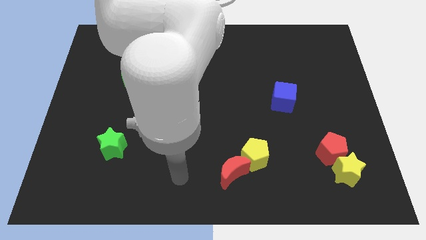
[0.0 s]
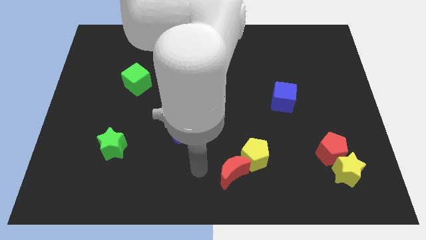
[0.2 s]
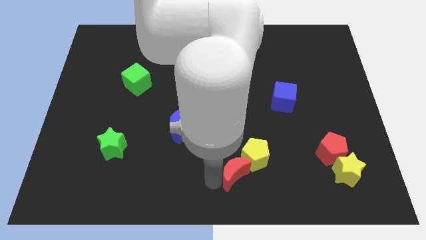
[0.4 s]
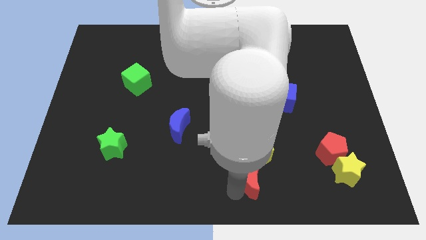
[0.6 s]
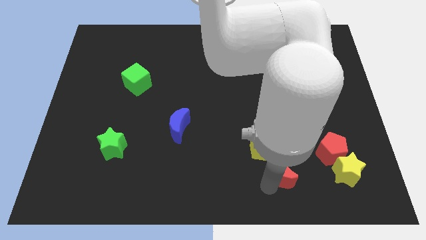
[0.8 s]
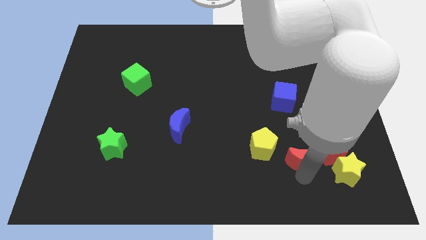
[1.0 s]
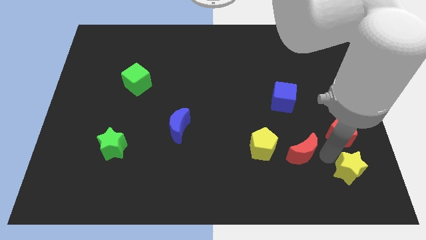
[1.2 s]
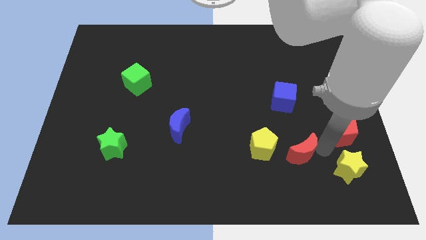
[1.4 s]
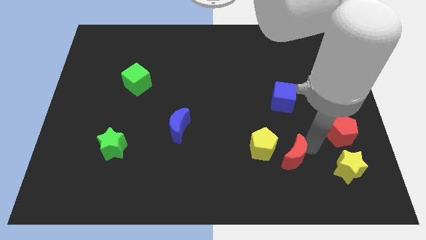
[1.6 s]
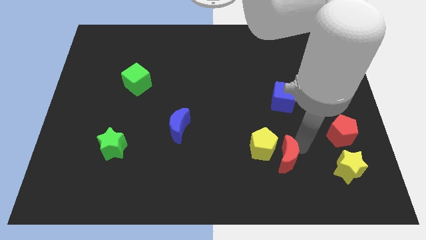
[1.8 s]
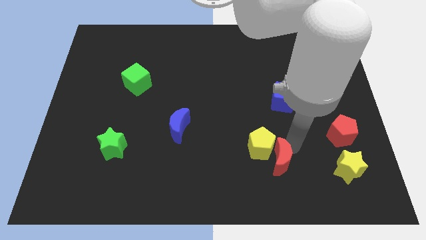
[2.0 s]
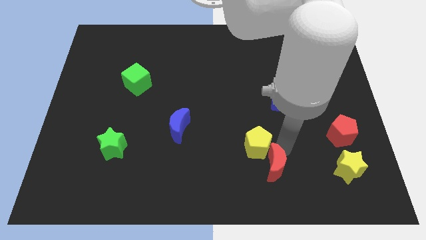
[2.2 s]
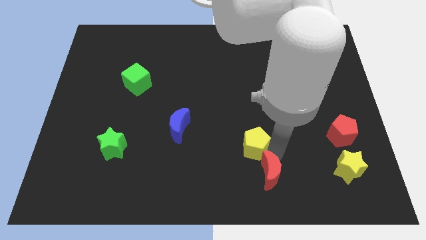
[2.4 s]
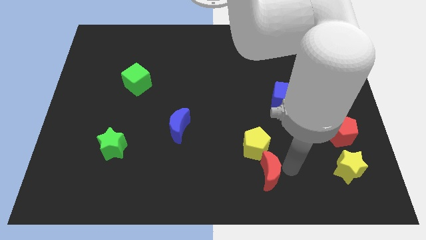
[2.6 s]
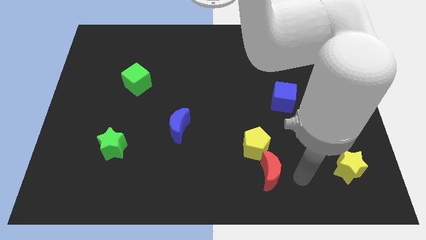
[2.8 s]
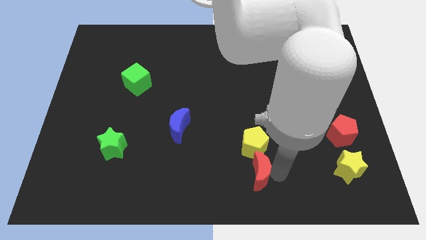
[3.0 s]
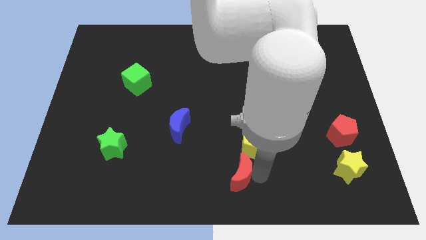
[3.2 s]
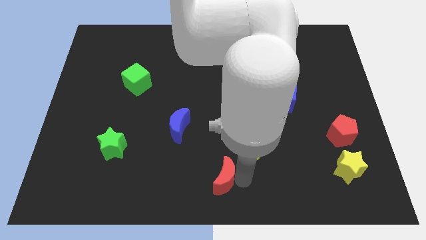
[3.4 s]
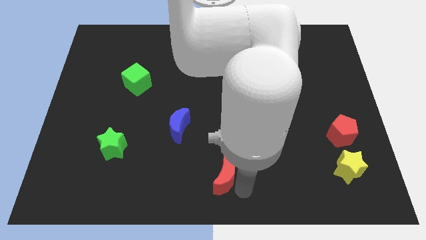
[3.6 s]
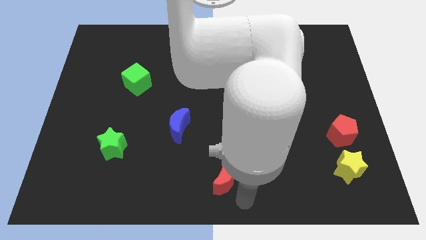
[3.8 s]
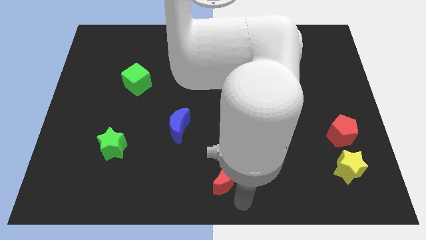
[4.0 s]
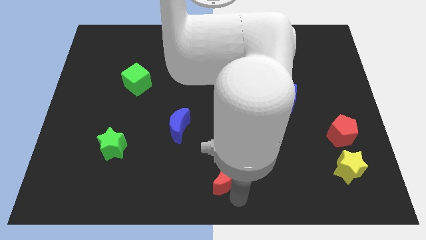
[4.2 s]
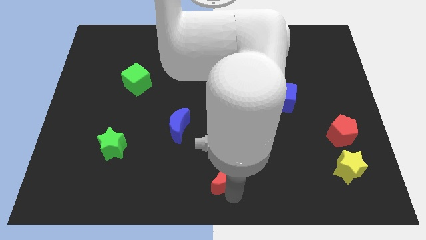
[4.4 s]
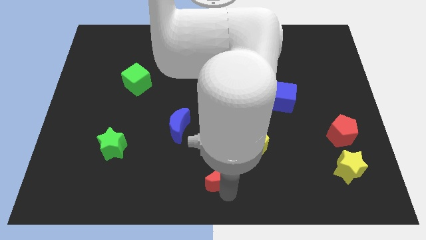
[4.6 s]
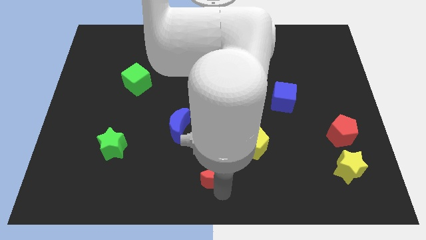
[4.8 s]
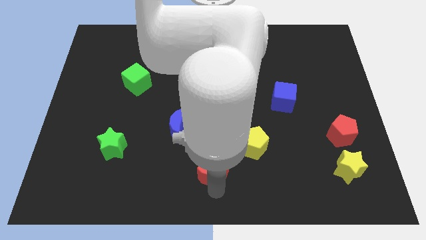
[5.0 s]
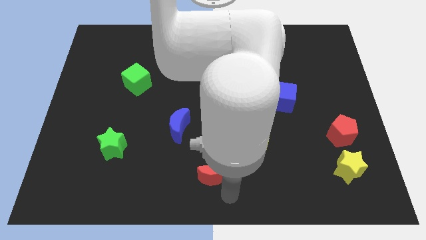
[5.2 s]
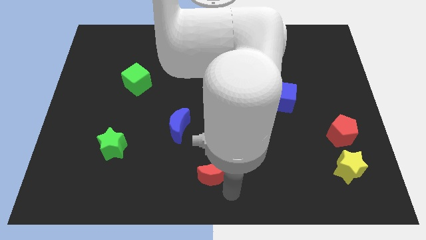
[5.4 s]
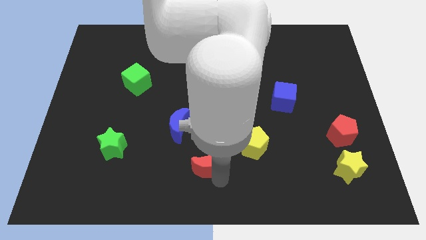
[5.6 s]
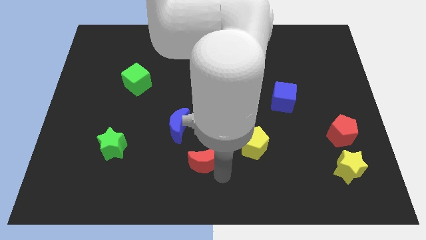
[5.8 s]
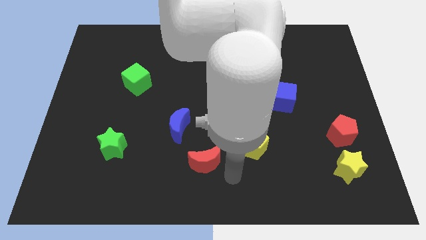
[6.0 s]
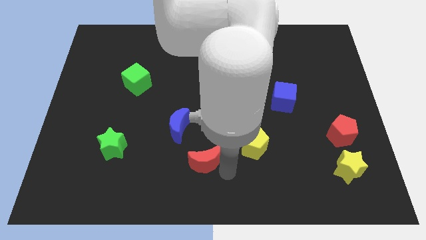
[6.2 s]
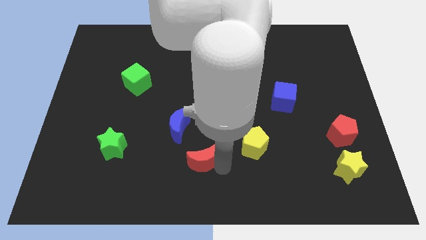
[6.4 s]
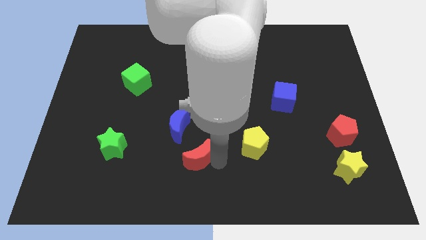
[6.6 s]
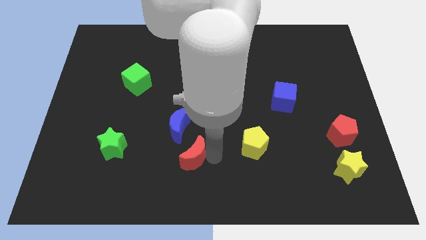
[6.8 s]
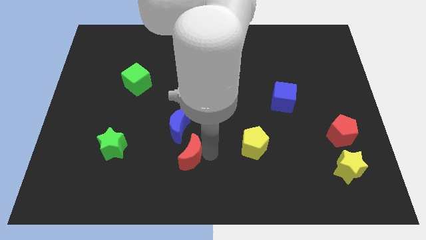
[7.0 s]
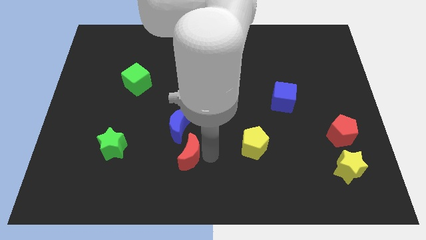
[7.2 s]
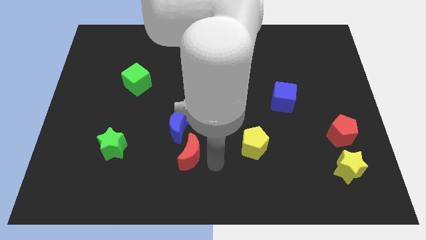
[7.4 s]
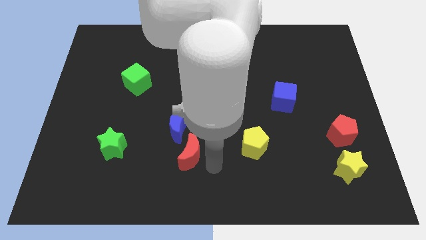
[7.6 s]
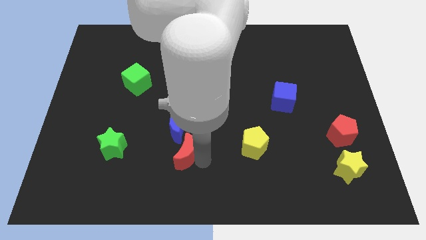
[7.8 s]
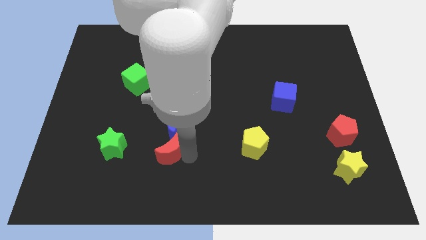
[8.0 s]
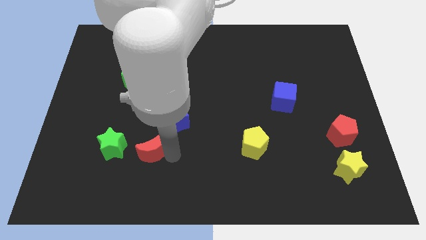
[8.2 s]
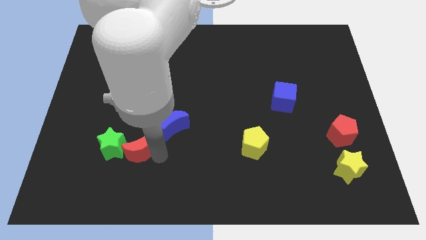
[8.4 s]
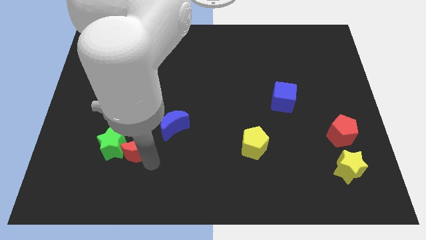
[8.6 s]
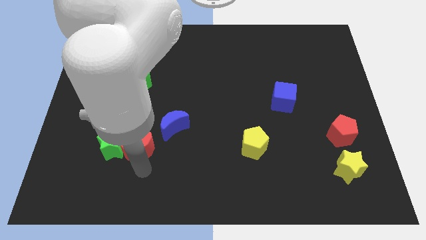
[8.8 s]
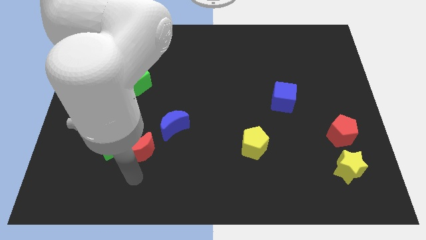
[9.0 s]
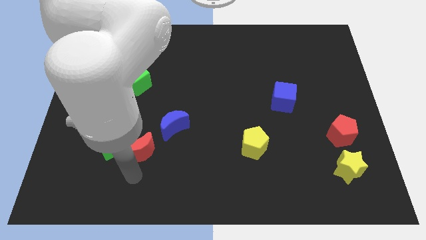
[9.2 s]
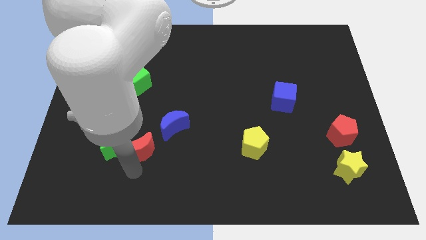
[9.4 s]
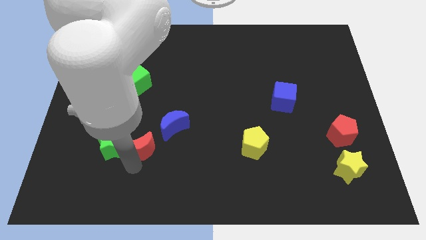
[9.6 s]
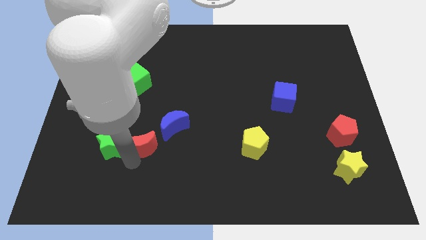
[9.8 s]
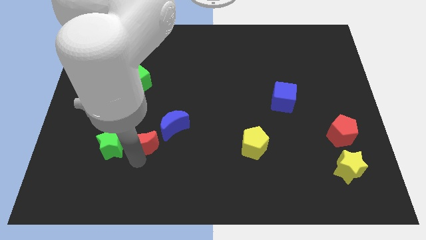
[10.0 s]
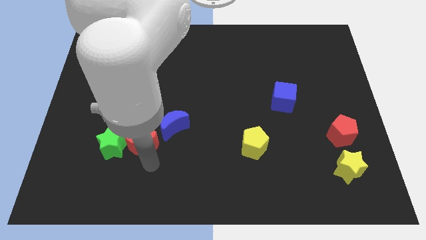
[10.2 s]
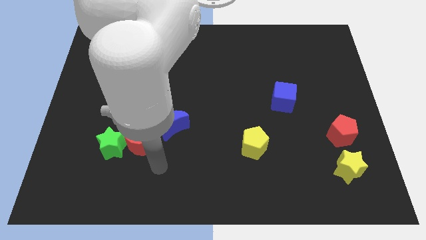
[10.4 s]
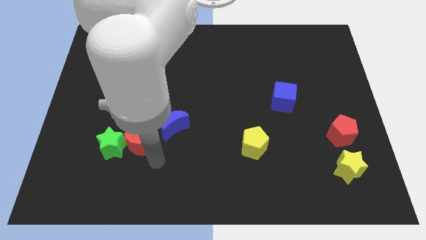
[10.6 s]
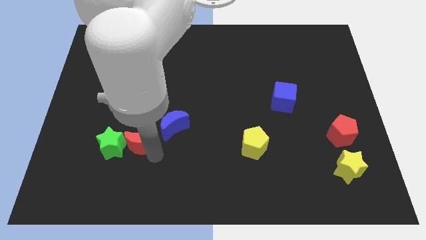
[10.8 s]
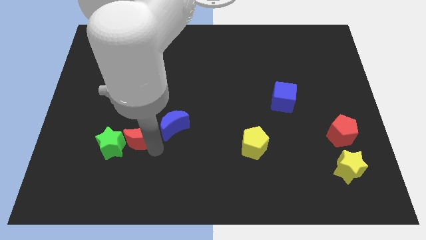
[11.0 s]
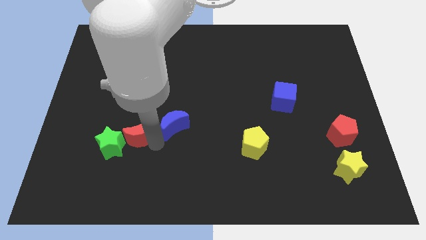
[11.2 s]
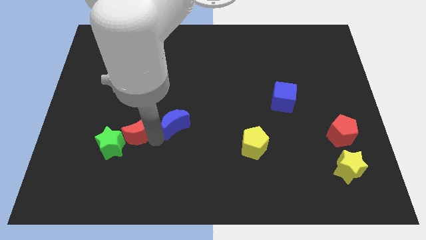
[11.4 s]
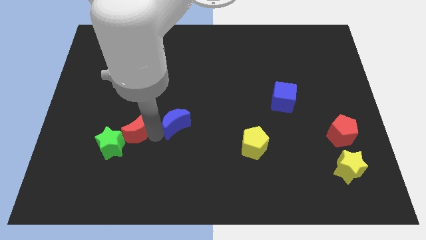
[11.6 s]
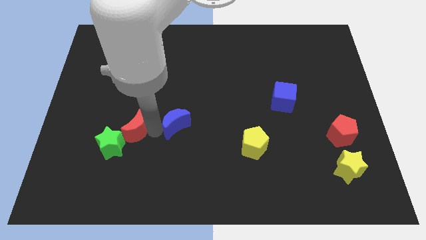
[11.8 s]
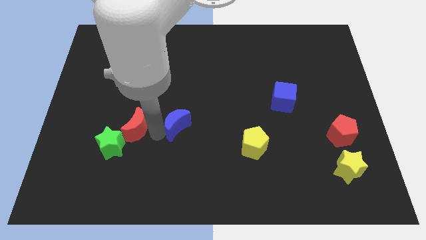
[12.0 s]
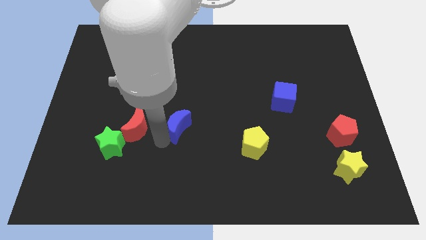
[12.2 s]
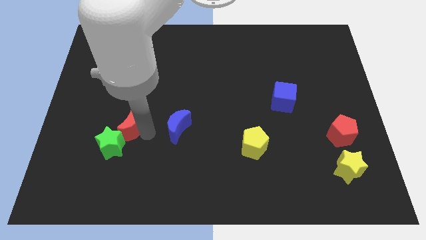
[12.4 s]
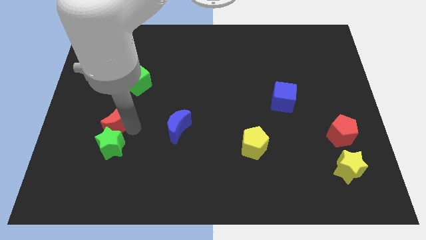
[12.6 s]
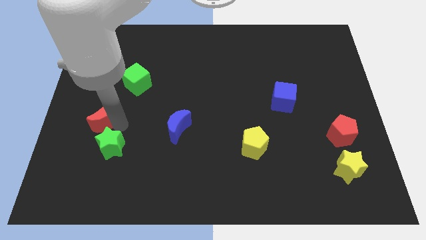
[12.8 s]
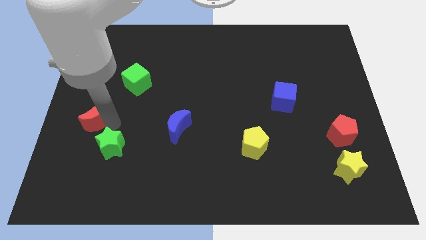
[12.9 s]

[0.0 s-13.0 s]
put the red moon to the left side of the board
